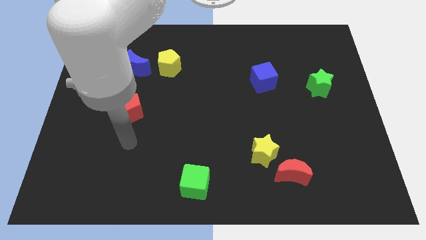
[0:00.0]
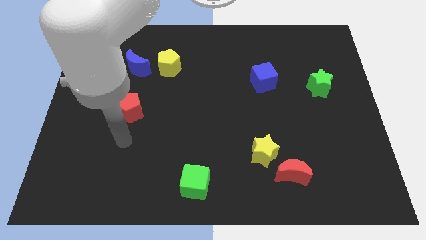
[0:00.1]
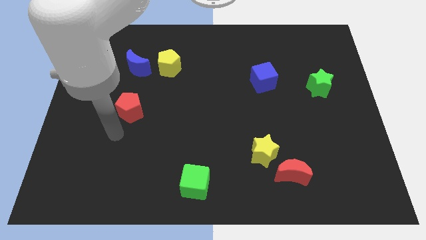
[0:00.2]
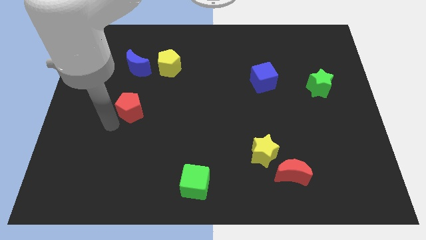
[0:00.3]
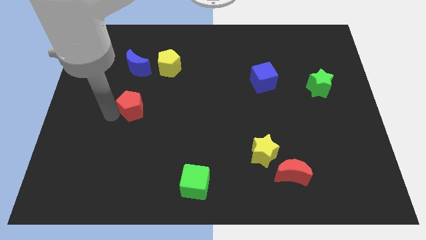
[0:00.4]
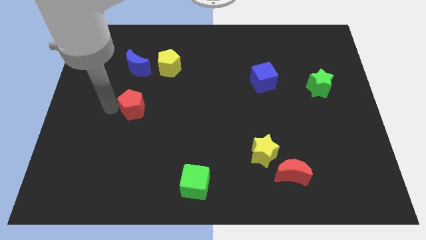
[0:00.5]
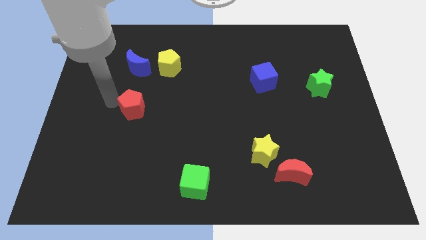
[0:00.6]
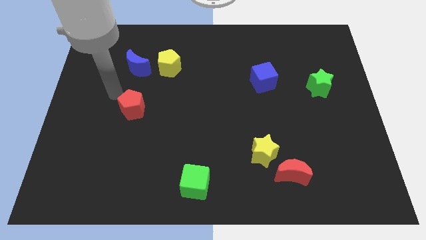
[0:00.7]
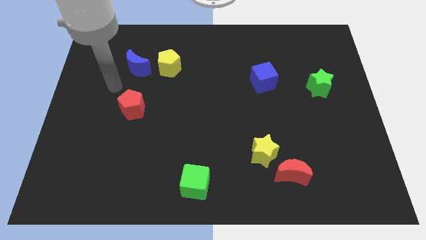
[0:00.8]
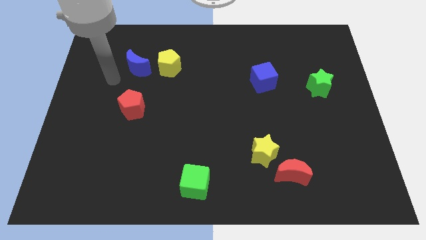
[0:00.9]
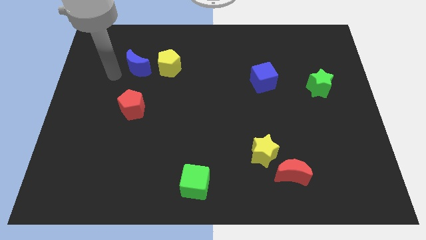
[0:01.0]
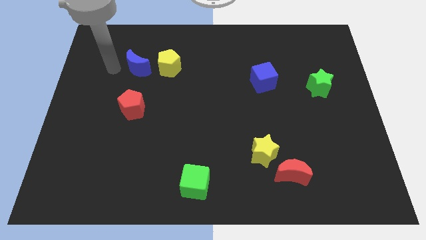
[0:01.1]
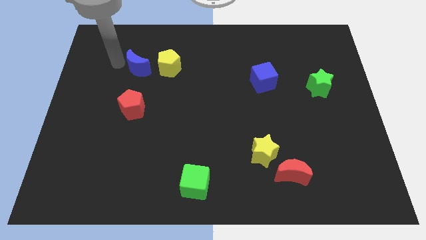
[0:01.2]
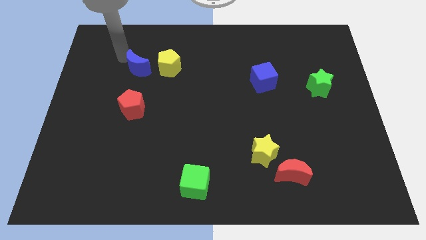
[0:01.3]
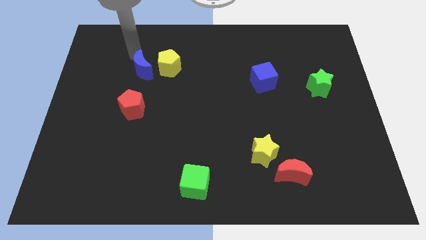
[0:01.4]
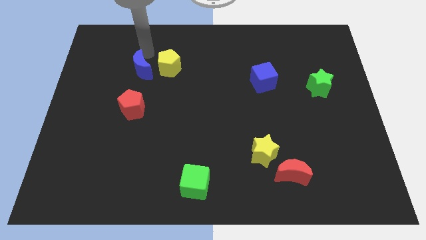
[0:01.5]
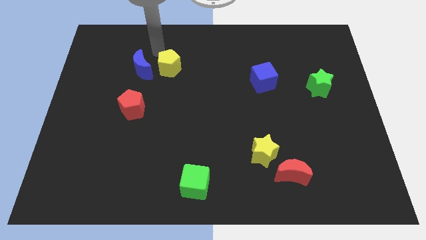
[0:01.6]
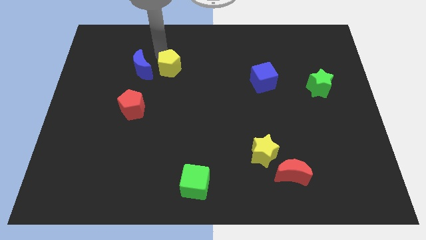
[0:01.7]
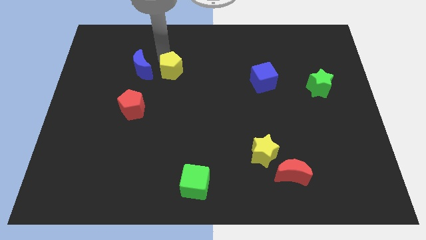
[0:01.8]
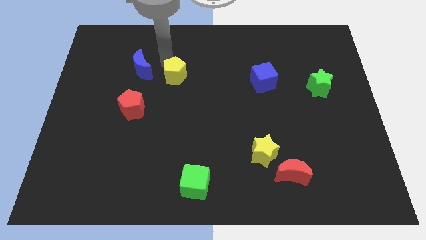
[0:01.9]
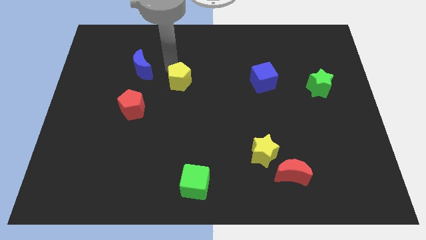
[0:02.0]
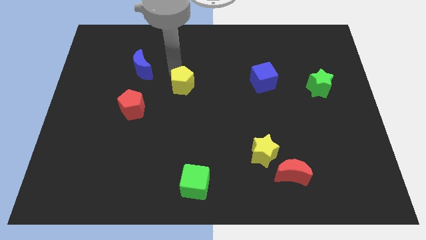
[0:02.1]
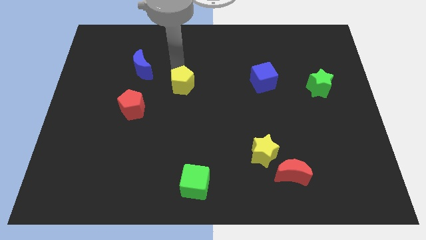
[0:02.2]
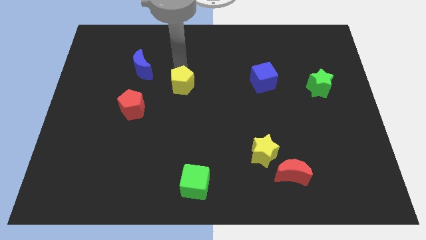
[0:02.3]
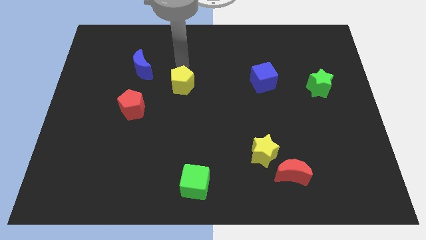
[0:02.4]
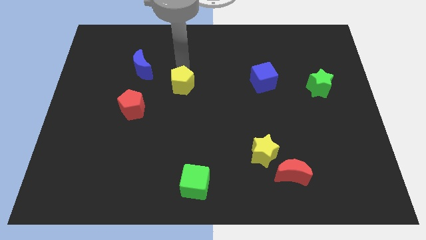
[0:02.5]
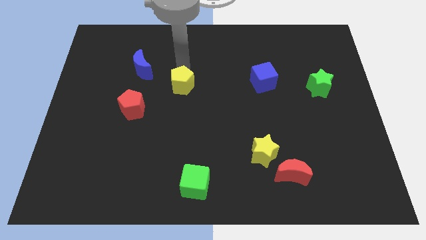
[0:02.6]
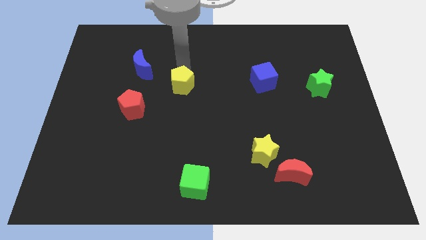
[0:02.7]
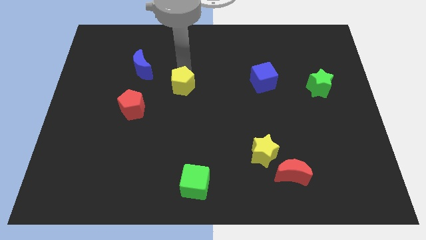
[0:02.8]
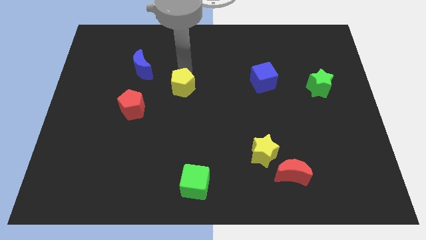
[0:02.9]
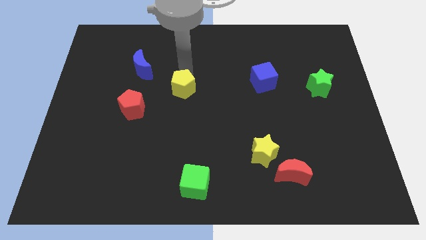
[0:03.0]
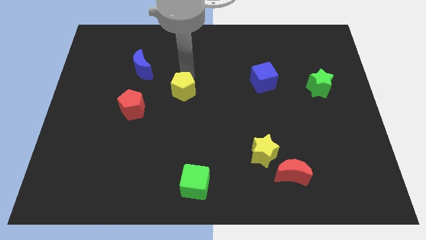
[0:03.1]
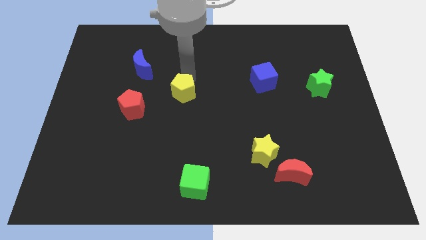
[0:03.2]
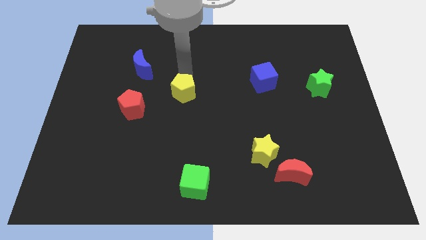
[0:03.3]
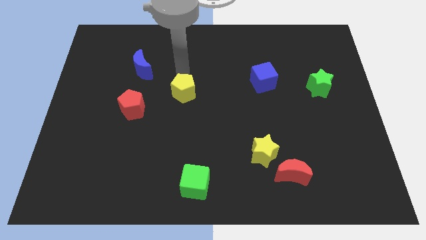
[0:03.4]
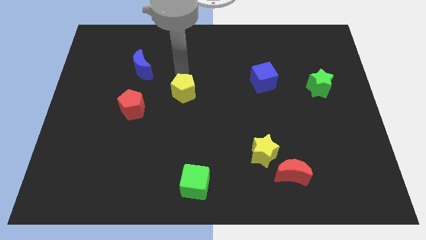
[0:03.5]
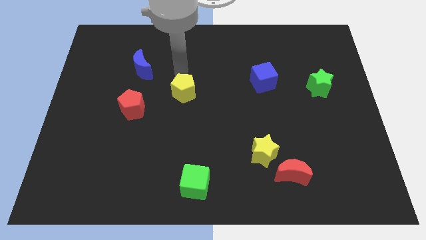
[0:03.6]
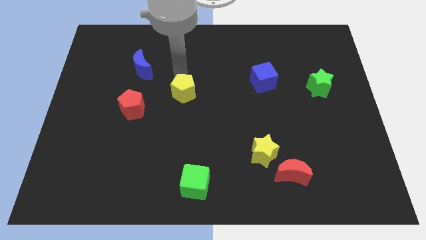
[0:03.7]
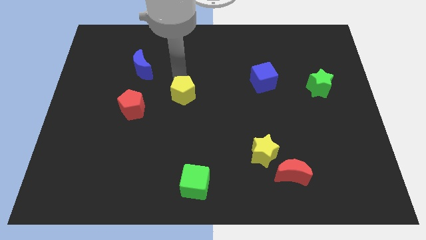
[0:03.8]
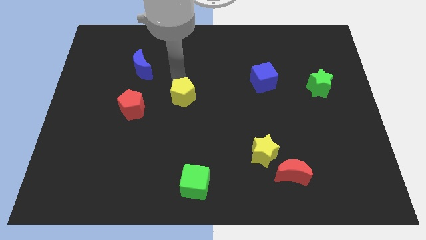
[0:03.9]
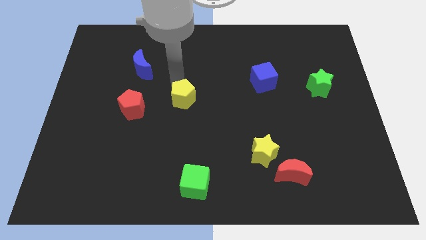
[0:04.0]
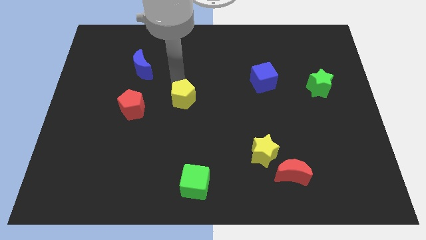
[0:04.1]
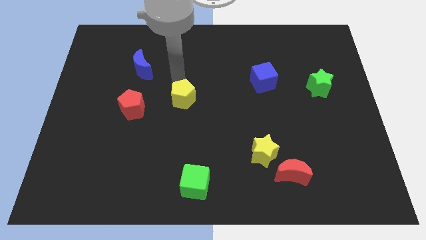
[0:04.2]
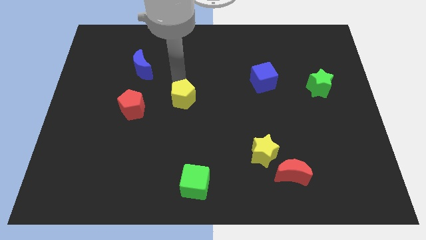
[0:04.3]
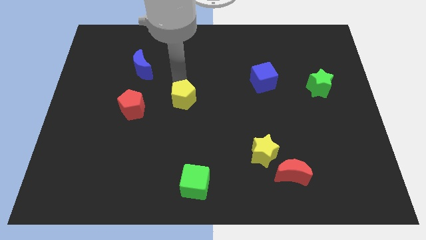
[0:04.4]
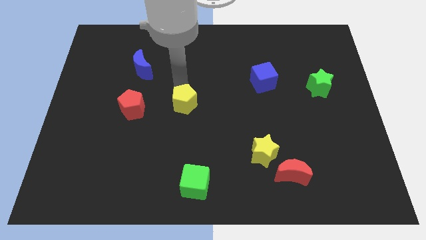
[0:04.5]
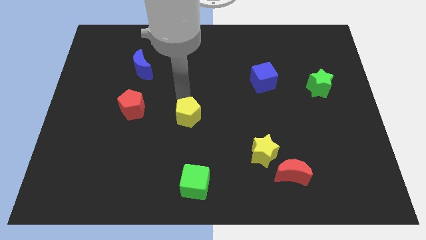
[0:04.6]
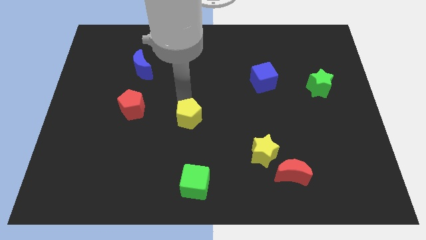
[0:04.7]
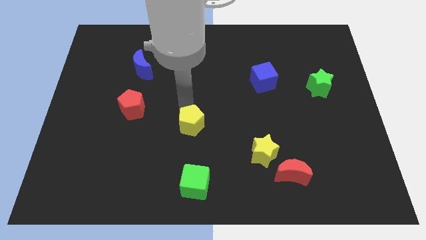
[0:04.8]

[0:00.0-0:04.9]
move the yellow pentagon to the top of the green cube

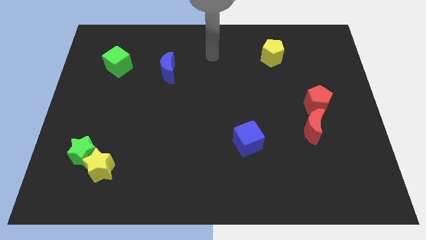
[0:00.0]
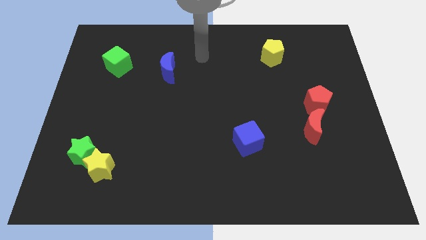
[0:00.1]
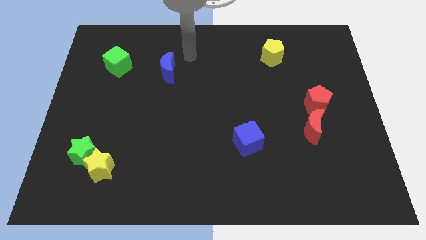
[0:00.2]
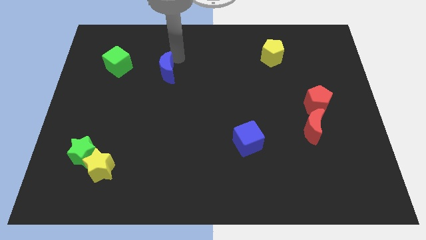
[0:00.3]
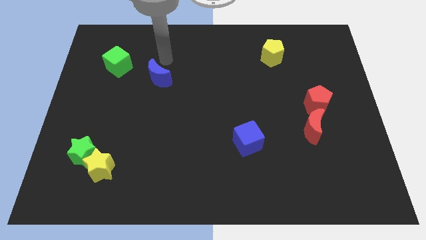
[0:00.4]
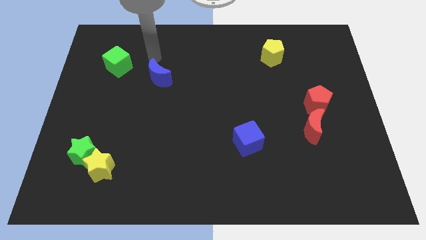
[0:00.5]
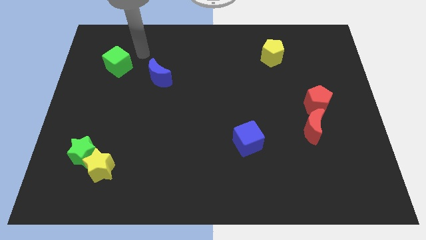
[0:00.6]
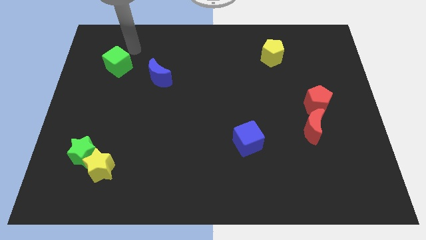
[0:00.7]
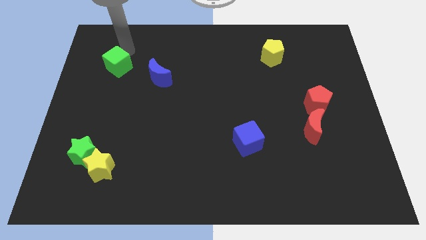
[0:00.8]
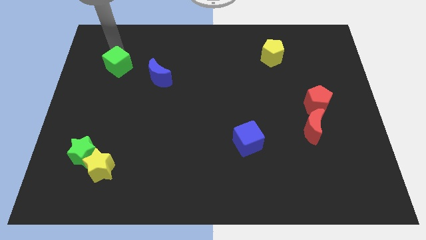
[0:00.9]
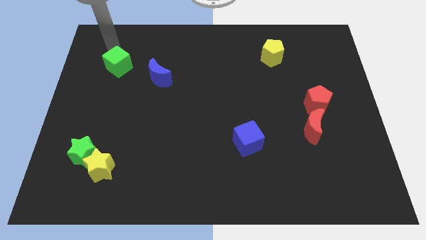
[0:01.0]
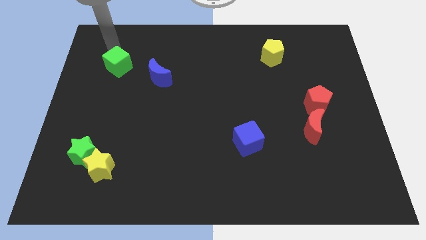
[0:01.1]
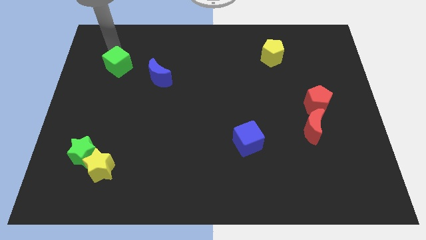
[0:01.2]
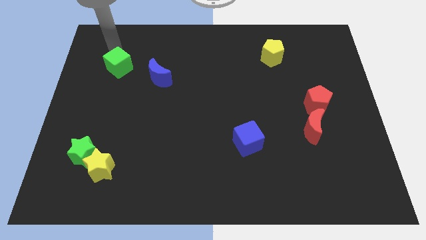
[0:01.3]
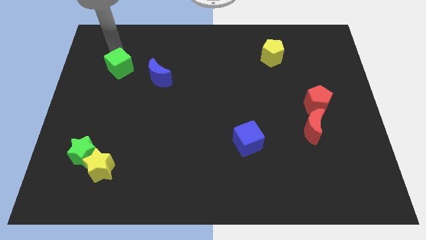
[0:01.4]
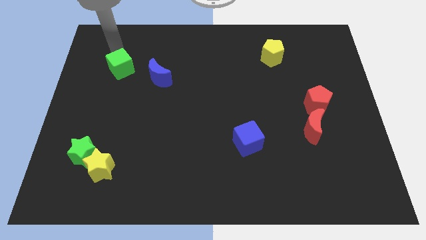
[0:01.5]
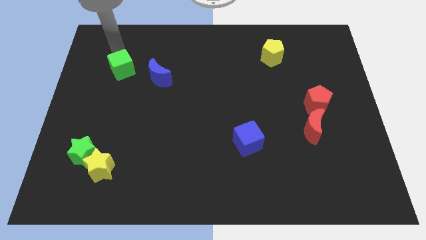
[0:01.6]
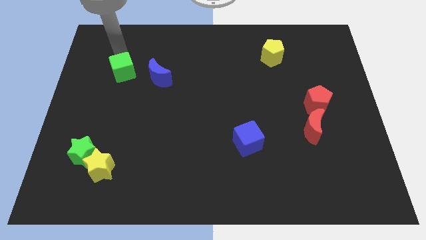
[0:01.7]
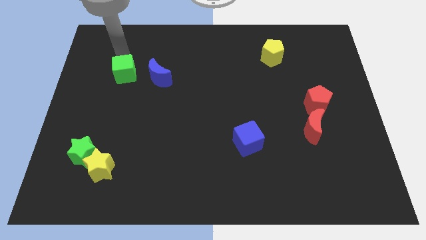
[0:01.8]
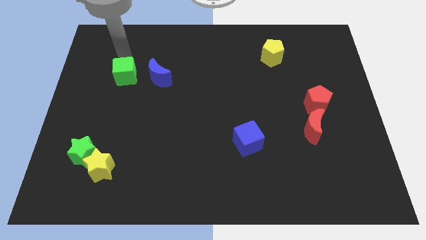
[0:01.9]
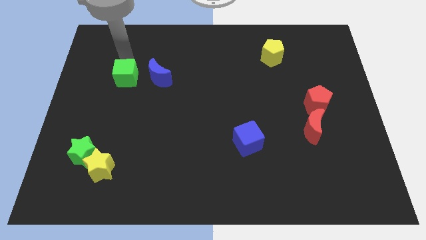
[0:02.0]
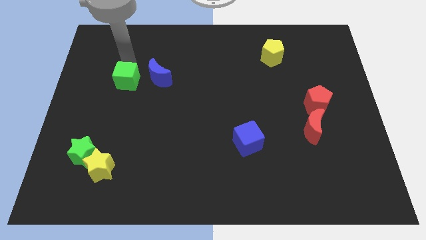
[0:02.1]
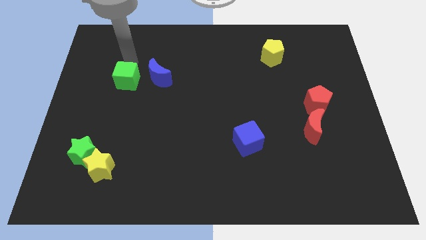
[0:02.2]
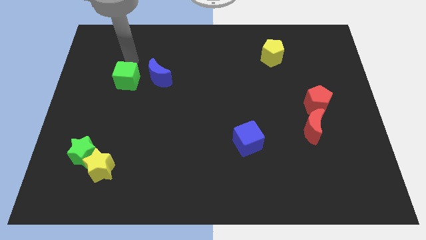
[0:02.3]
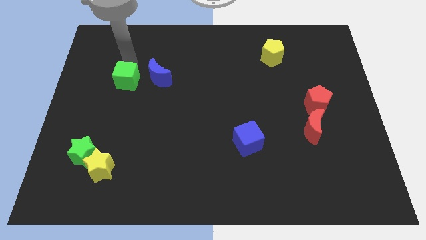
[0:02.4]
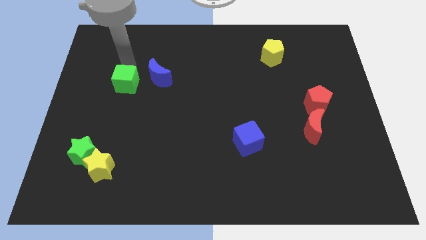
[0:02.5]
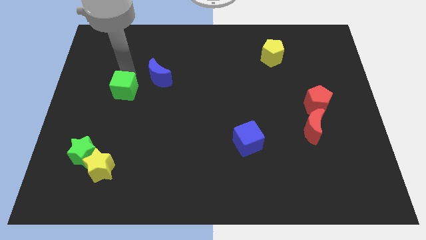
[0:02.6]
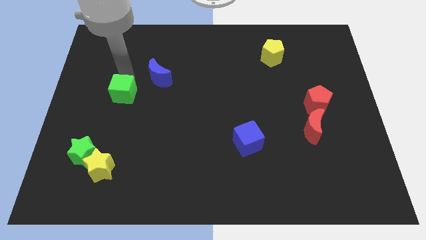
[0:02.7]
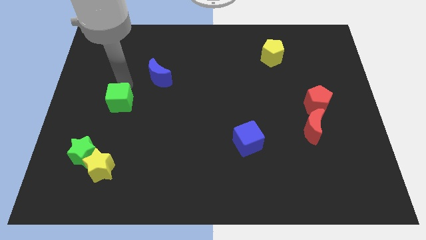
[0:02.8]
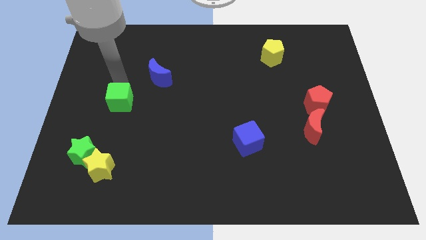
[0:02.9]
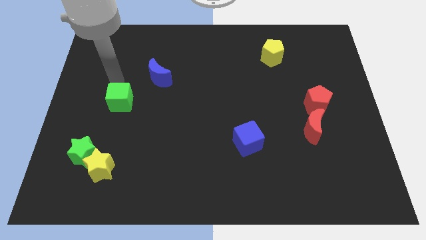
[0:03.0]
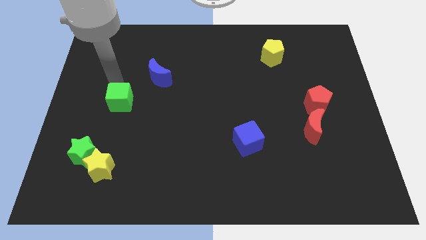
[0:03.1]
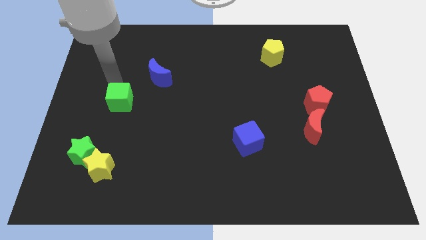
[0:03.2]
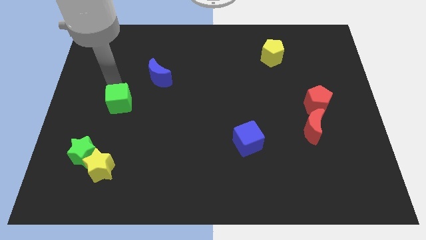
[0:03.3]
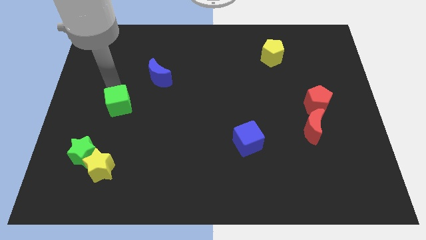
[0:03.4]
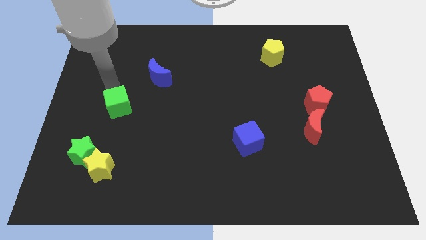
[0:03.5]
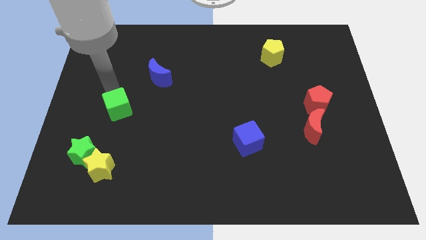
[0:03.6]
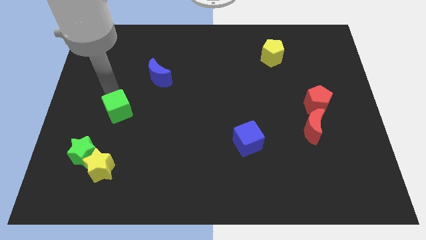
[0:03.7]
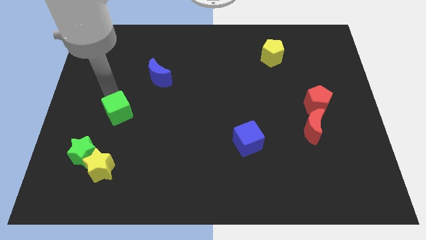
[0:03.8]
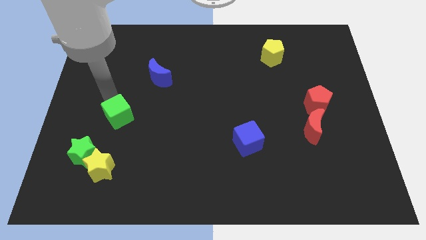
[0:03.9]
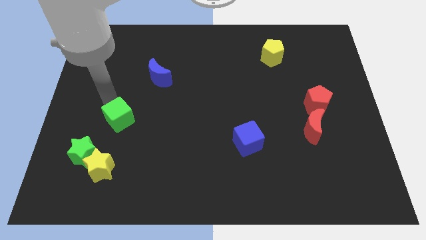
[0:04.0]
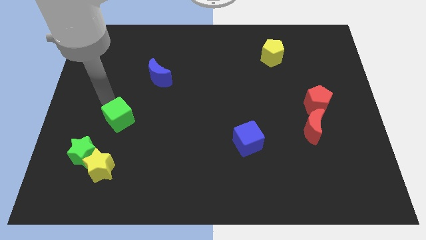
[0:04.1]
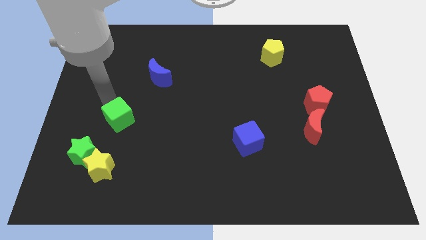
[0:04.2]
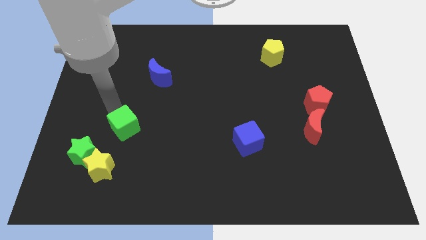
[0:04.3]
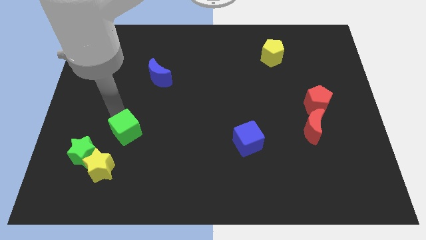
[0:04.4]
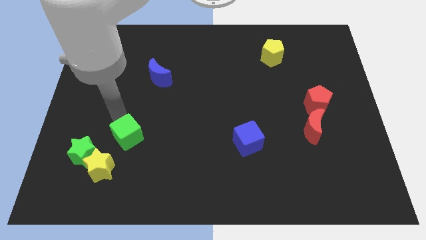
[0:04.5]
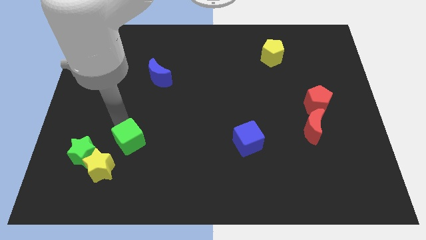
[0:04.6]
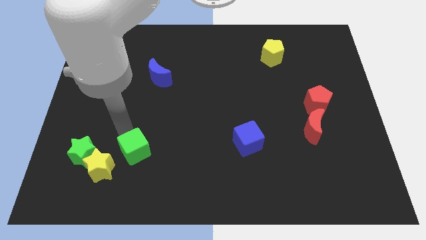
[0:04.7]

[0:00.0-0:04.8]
move the green cube to the right side of the yellow star
